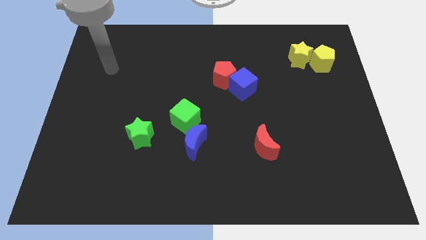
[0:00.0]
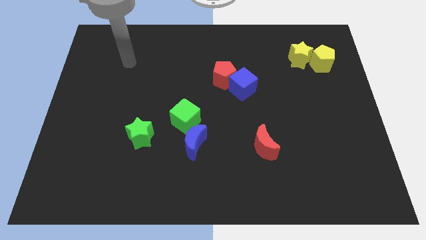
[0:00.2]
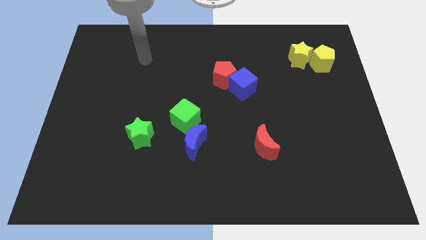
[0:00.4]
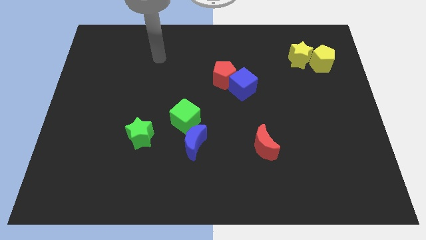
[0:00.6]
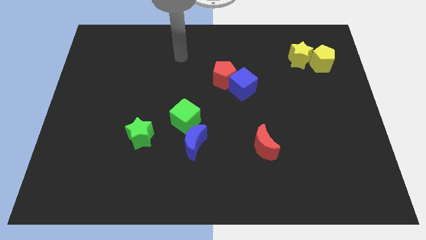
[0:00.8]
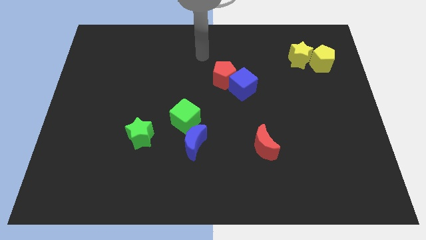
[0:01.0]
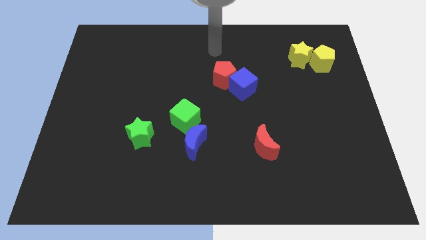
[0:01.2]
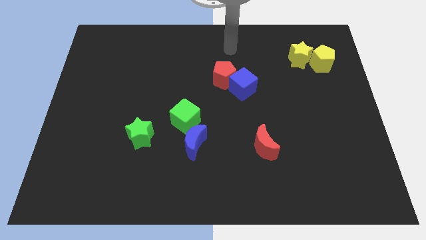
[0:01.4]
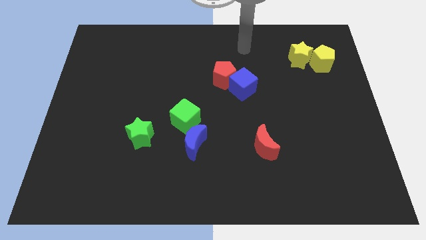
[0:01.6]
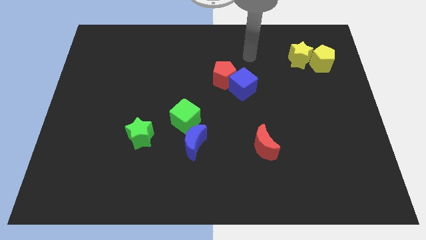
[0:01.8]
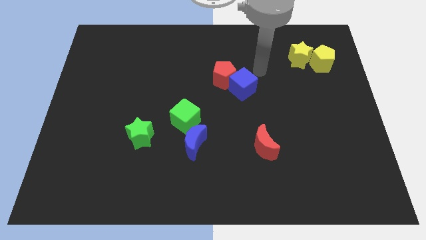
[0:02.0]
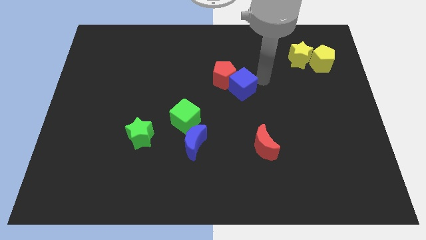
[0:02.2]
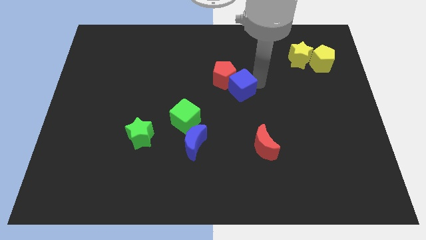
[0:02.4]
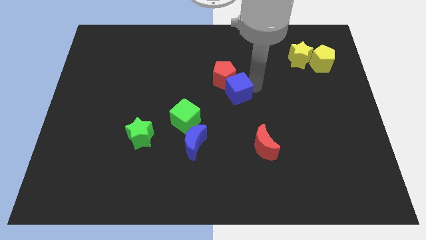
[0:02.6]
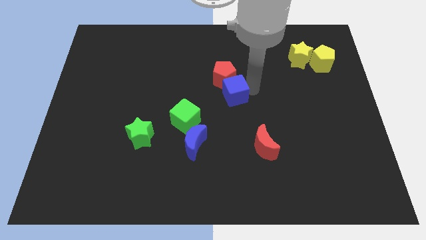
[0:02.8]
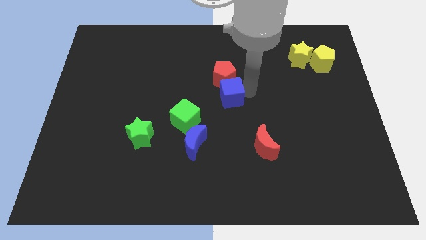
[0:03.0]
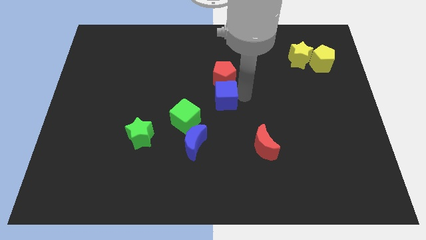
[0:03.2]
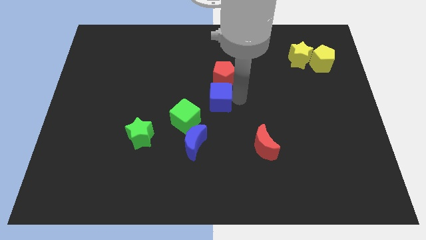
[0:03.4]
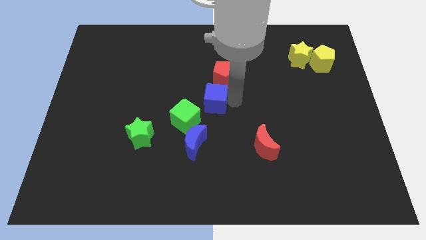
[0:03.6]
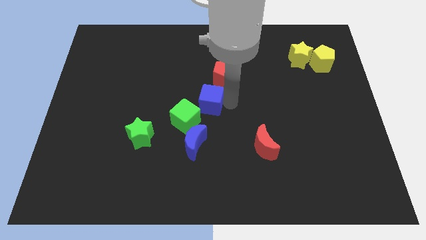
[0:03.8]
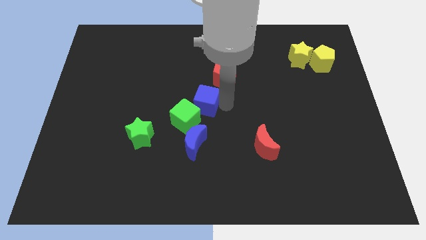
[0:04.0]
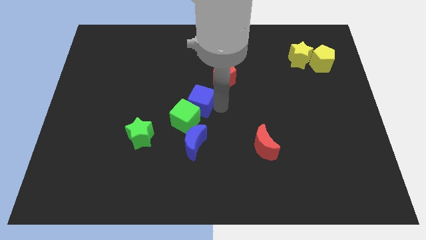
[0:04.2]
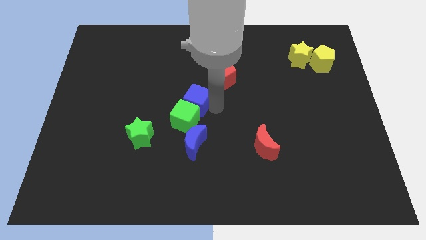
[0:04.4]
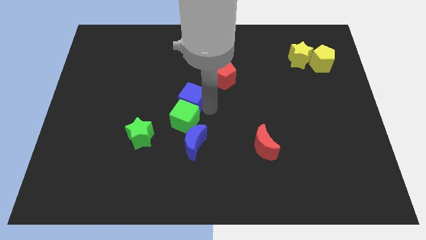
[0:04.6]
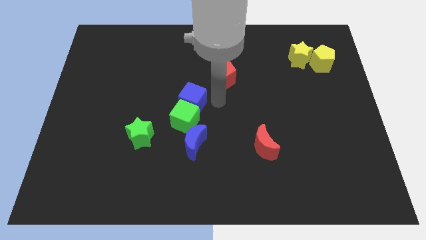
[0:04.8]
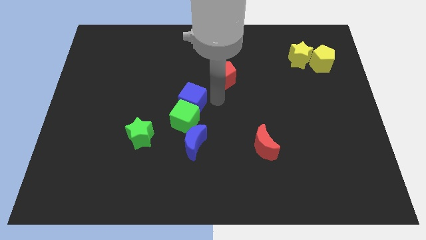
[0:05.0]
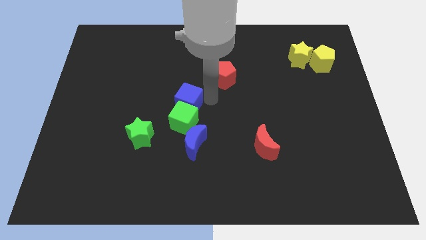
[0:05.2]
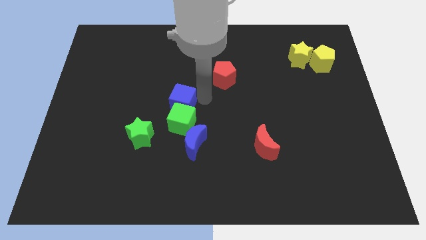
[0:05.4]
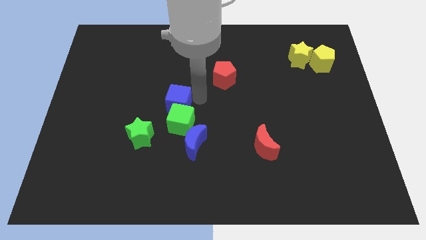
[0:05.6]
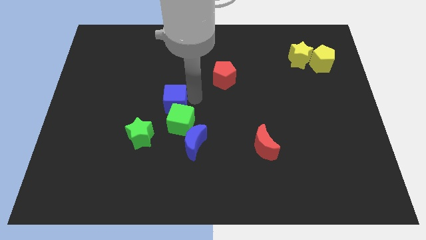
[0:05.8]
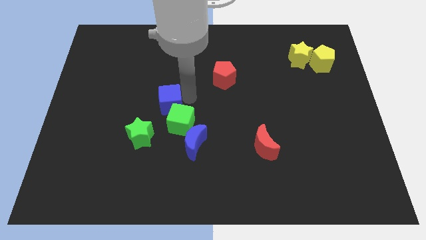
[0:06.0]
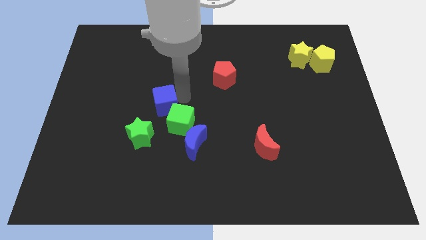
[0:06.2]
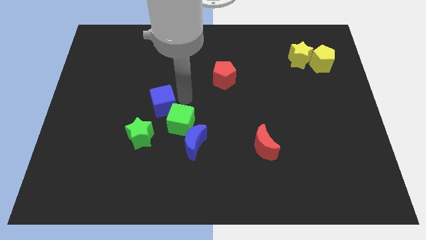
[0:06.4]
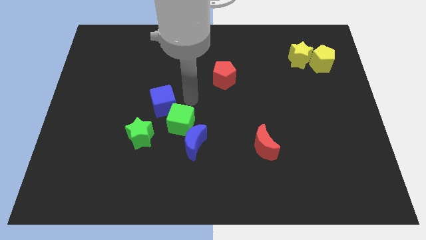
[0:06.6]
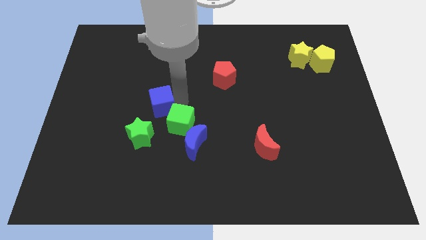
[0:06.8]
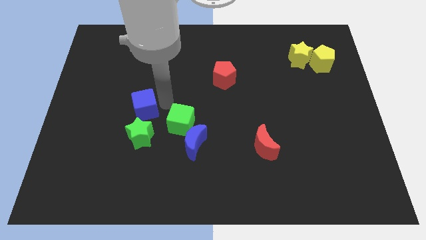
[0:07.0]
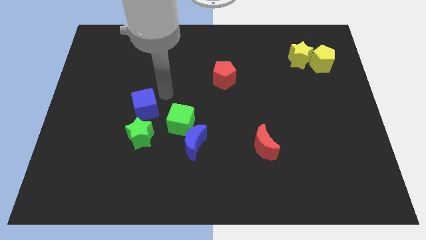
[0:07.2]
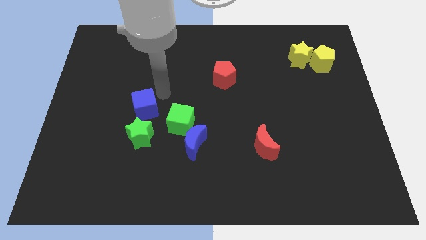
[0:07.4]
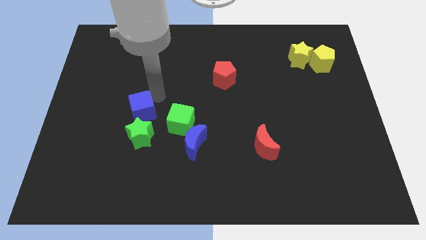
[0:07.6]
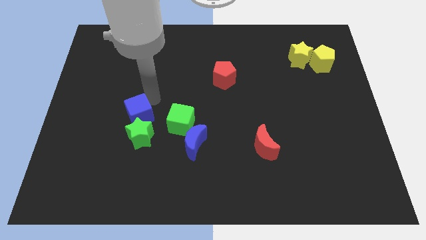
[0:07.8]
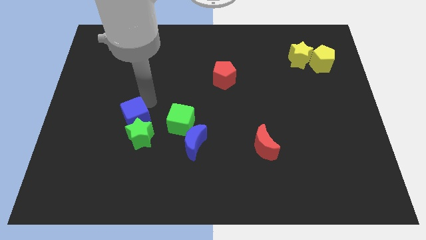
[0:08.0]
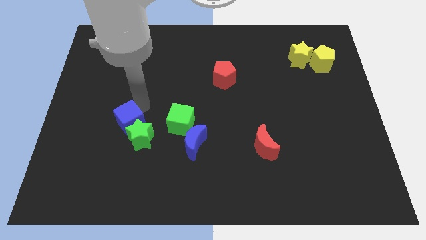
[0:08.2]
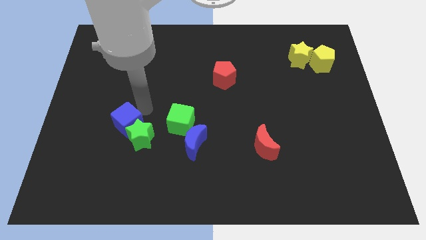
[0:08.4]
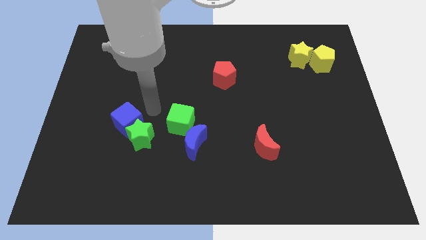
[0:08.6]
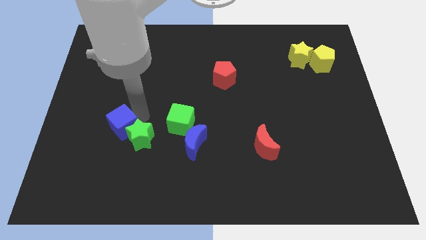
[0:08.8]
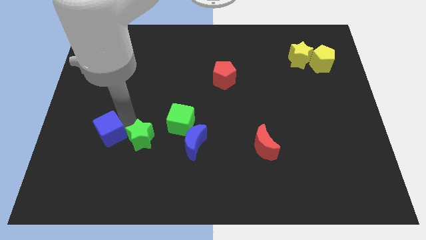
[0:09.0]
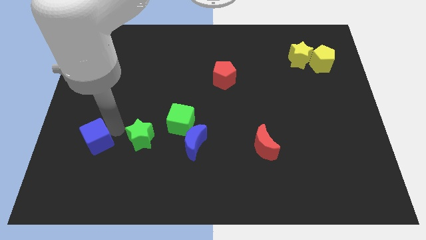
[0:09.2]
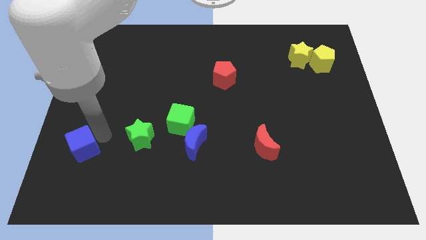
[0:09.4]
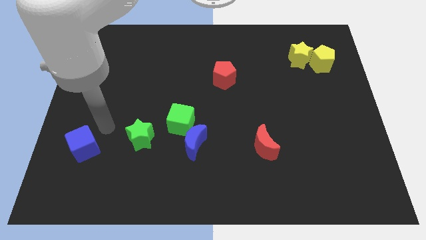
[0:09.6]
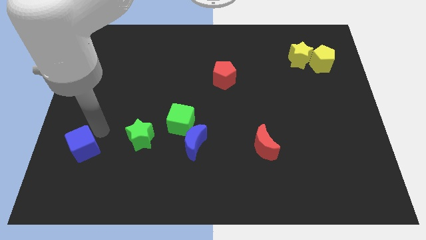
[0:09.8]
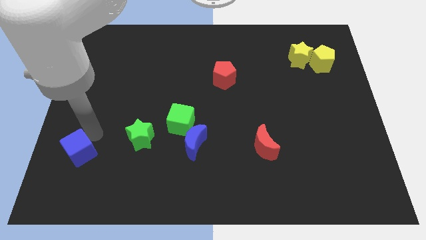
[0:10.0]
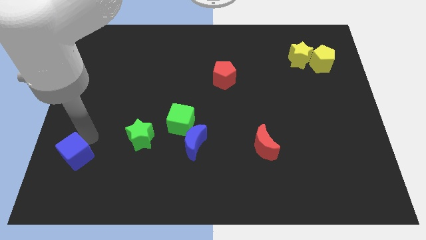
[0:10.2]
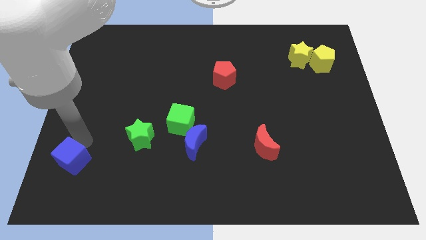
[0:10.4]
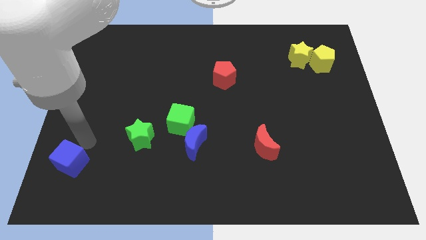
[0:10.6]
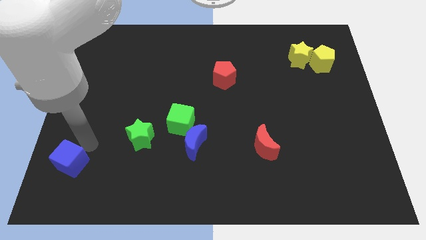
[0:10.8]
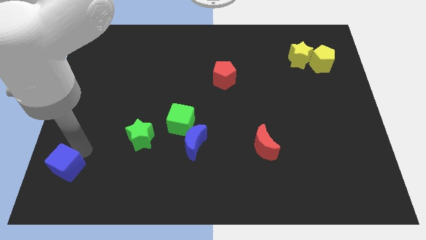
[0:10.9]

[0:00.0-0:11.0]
push the blue cube to the bottom left of the board
